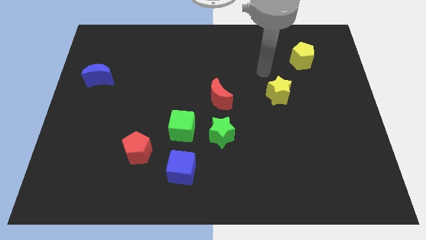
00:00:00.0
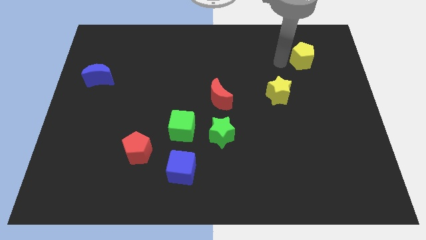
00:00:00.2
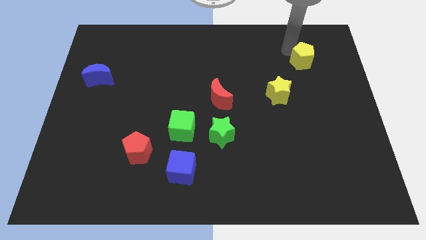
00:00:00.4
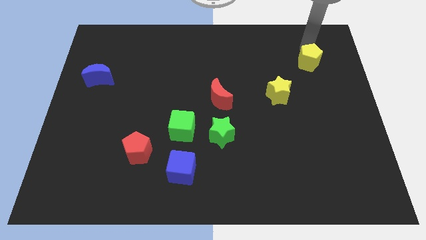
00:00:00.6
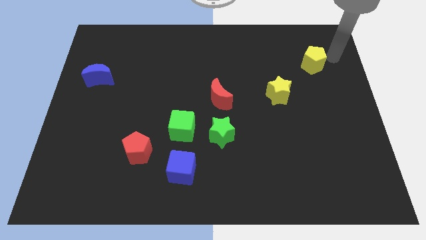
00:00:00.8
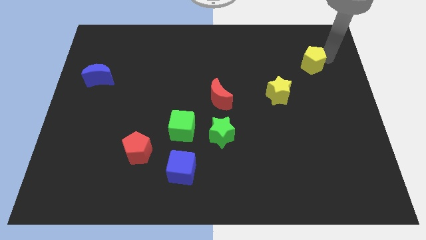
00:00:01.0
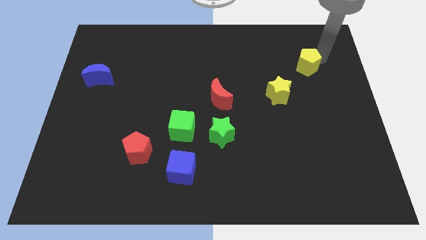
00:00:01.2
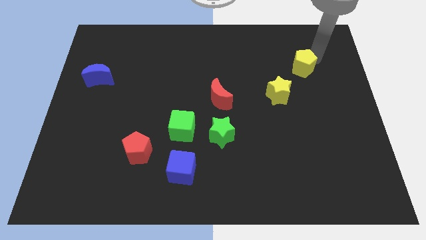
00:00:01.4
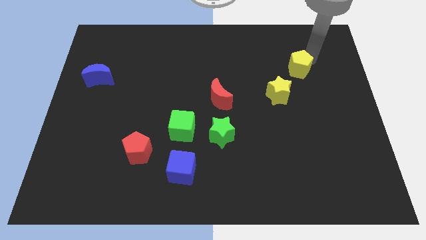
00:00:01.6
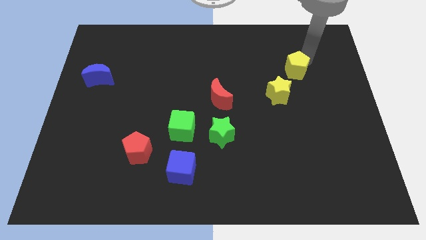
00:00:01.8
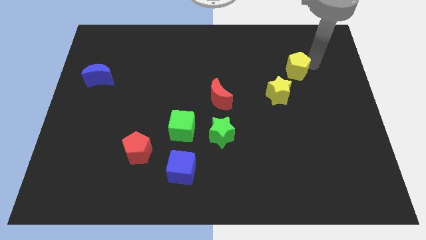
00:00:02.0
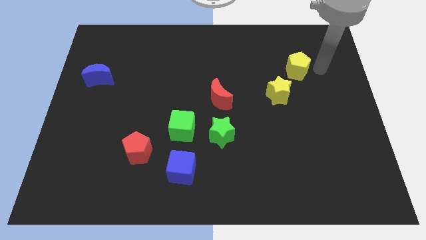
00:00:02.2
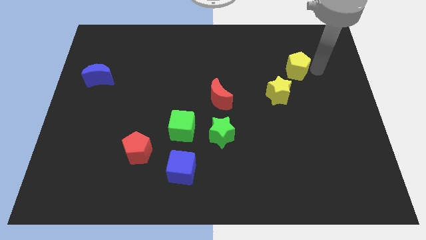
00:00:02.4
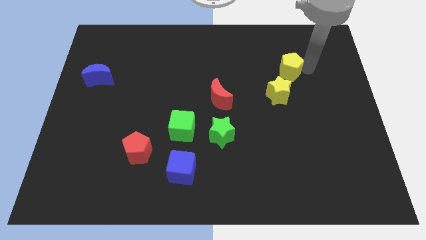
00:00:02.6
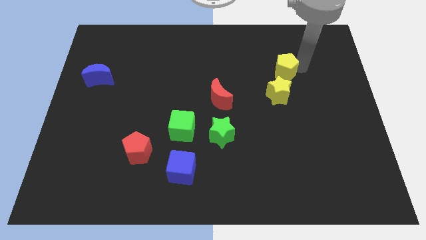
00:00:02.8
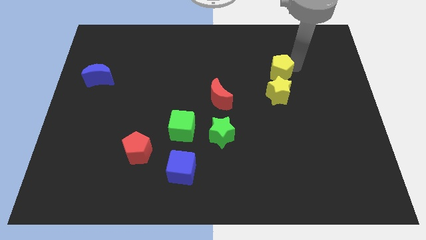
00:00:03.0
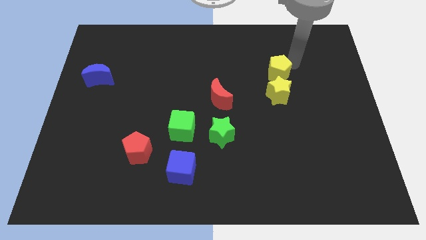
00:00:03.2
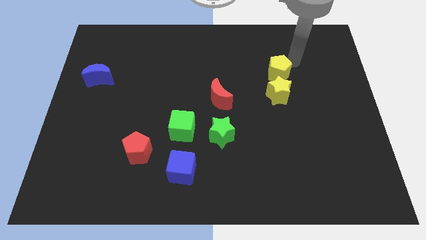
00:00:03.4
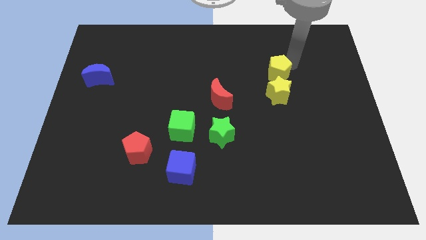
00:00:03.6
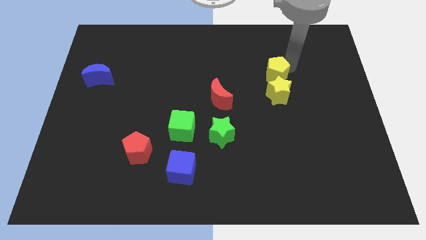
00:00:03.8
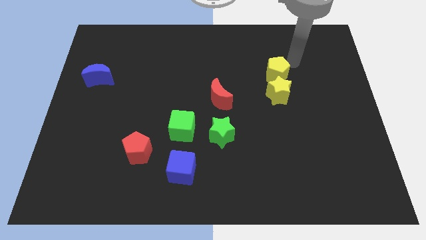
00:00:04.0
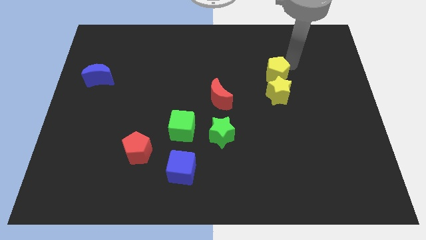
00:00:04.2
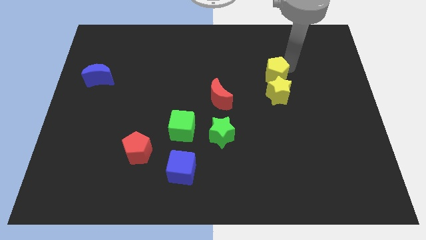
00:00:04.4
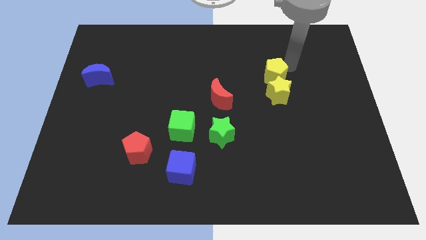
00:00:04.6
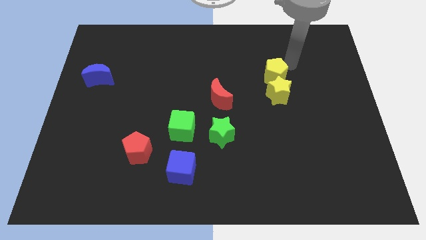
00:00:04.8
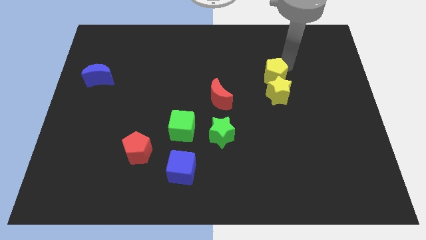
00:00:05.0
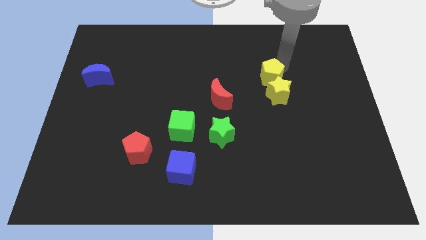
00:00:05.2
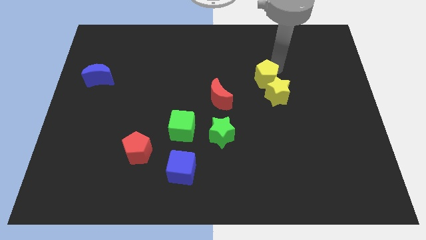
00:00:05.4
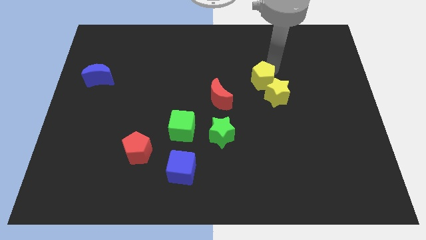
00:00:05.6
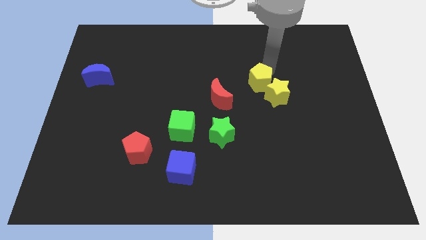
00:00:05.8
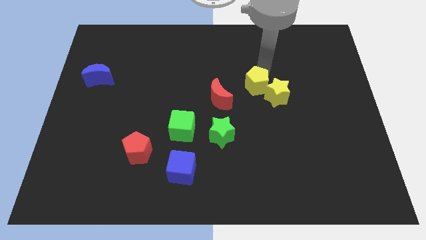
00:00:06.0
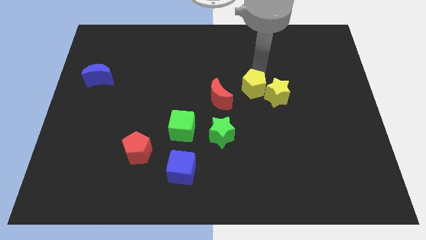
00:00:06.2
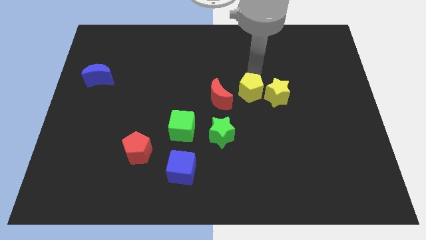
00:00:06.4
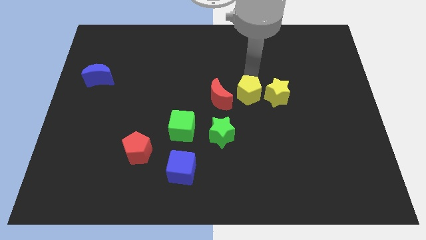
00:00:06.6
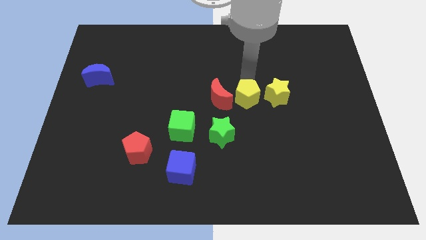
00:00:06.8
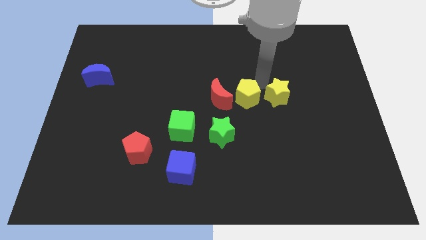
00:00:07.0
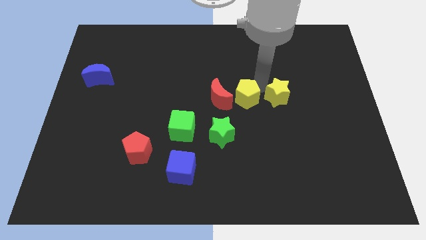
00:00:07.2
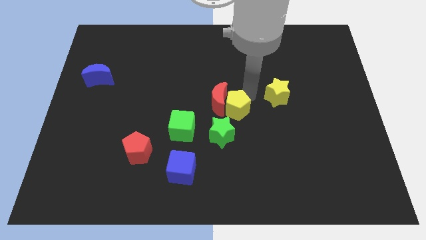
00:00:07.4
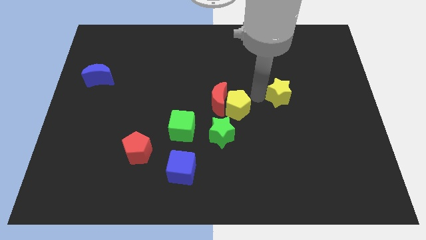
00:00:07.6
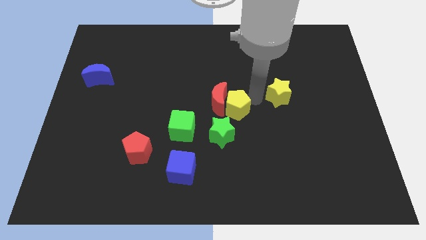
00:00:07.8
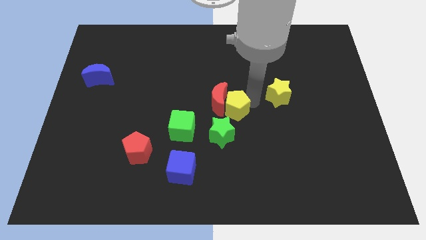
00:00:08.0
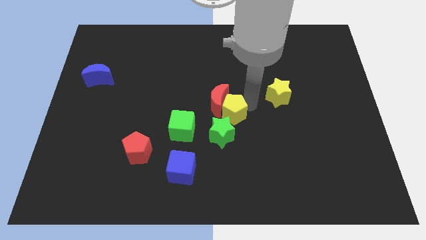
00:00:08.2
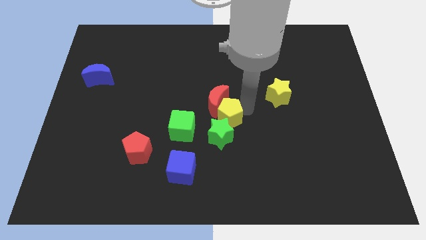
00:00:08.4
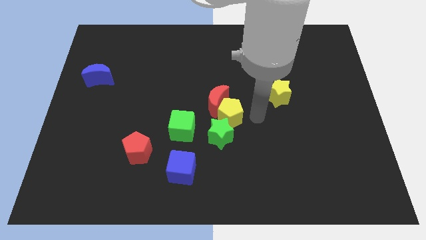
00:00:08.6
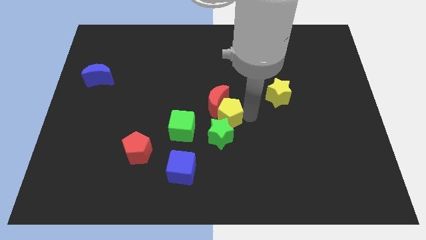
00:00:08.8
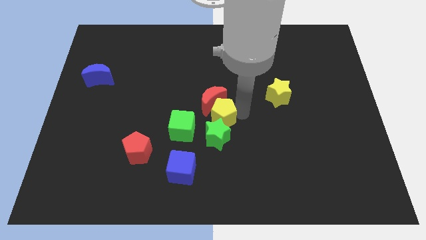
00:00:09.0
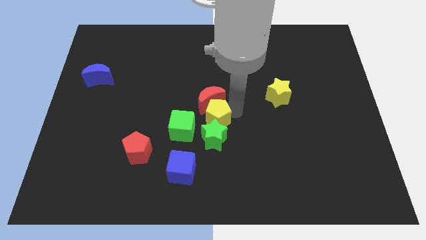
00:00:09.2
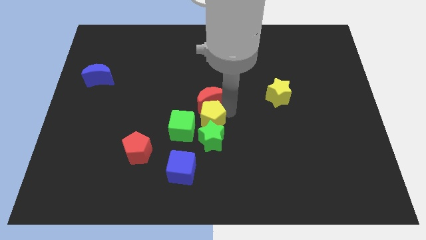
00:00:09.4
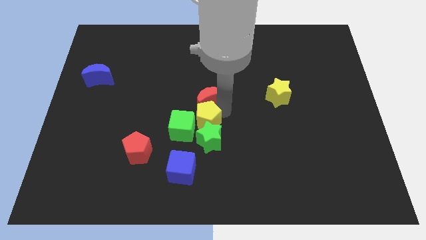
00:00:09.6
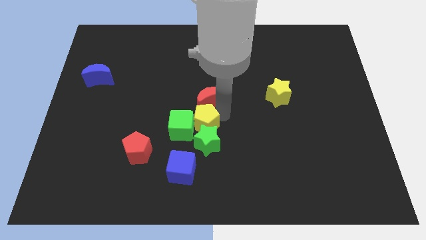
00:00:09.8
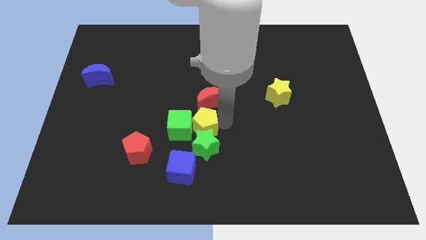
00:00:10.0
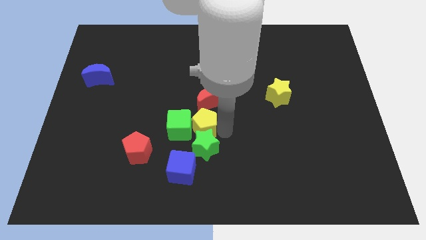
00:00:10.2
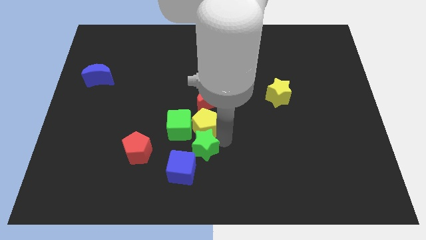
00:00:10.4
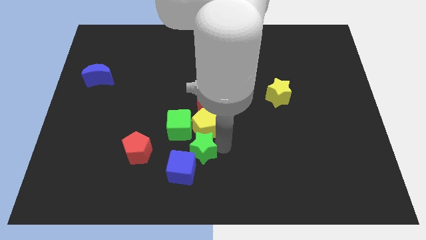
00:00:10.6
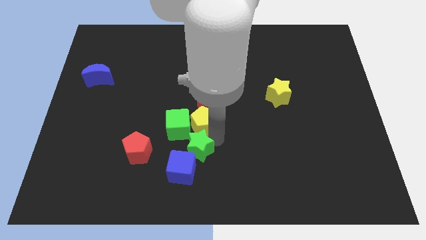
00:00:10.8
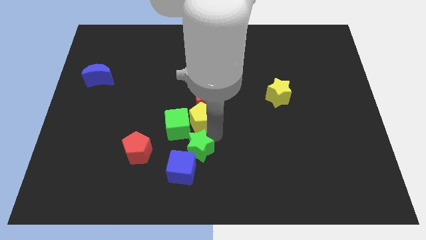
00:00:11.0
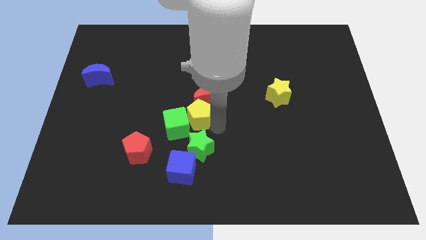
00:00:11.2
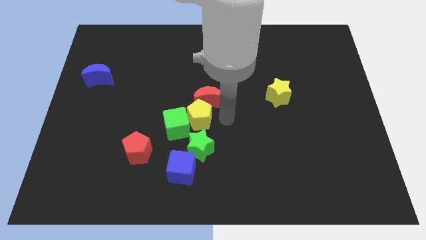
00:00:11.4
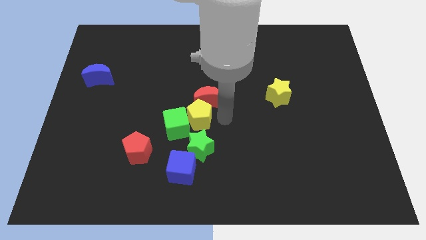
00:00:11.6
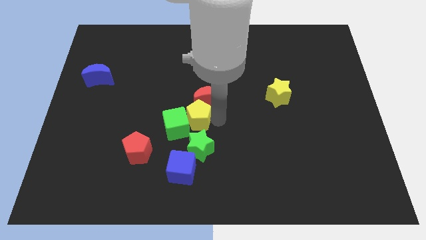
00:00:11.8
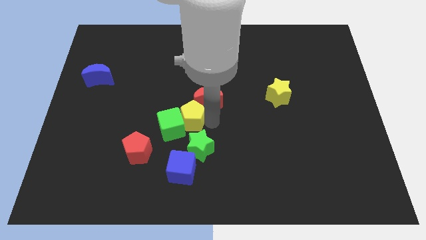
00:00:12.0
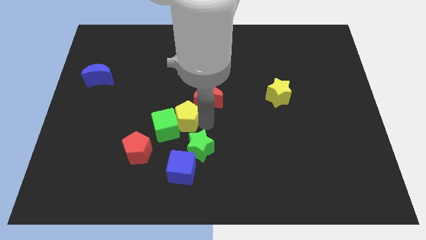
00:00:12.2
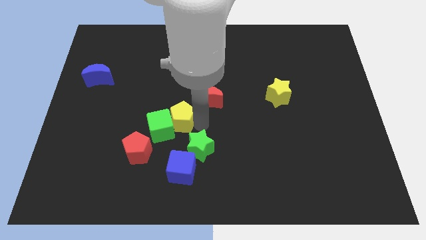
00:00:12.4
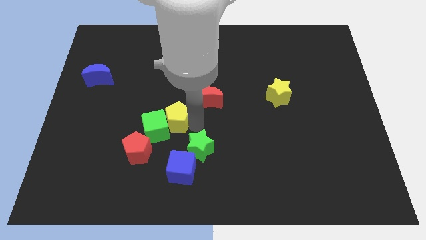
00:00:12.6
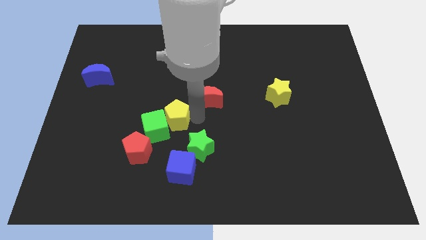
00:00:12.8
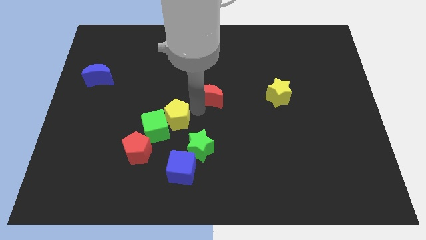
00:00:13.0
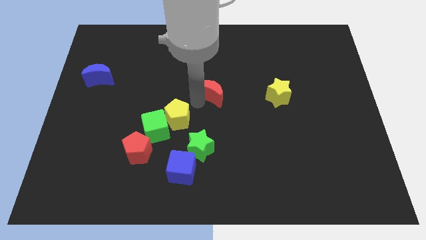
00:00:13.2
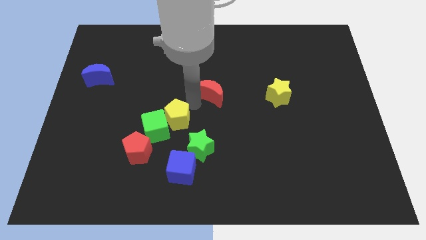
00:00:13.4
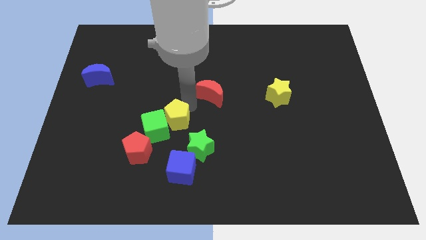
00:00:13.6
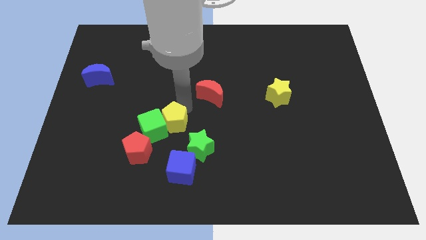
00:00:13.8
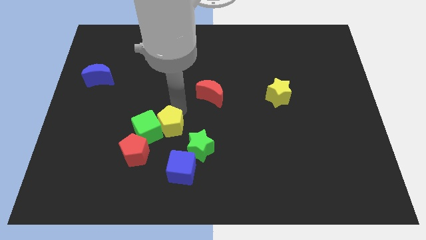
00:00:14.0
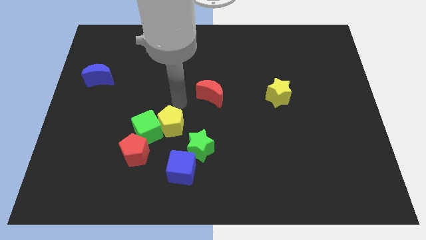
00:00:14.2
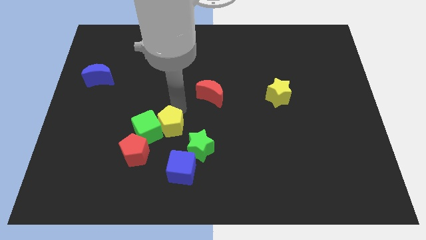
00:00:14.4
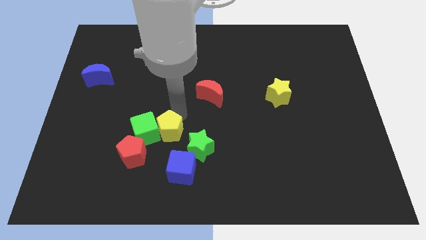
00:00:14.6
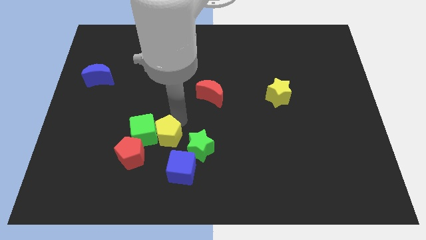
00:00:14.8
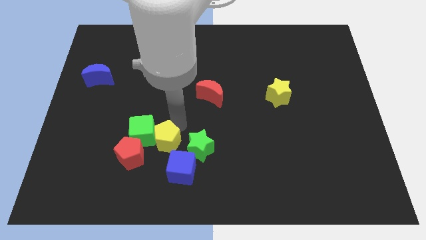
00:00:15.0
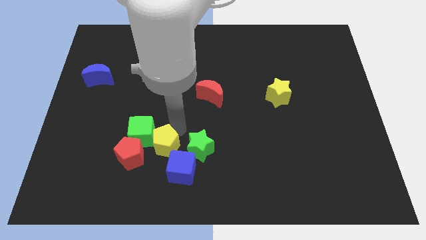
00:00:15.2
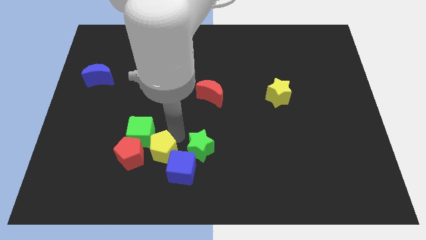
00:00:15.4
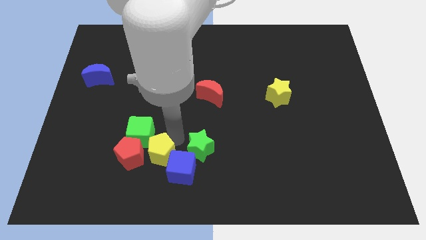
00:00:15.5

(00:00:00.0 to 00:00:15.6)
put the yellow pentagon to the bottom right of the red pentagon
